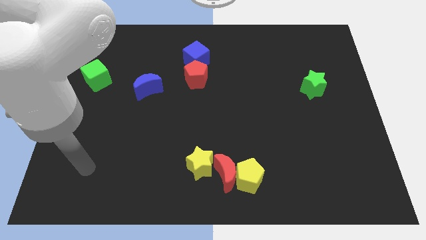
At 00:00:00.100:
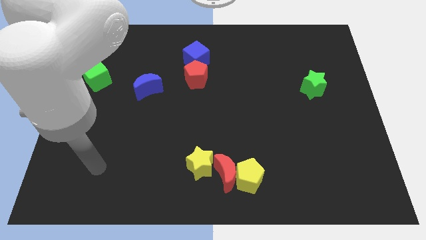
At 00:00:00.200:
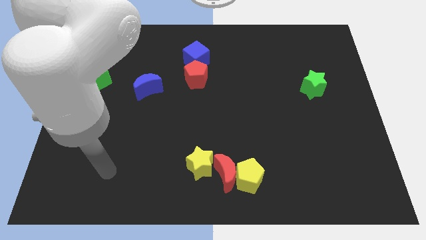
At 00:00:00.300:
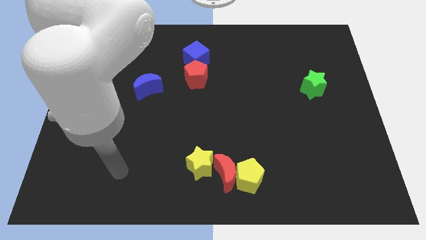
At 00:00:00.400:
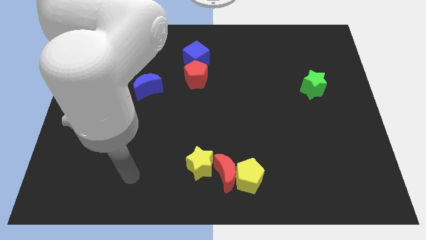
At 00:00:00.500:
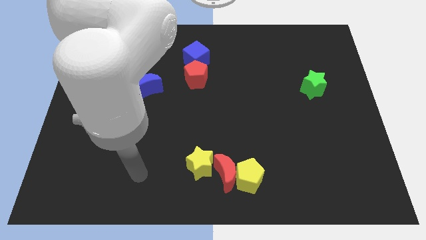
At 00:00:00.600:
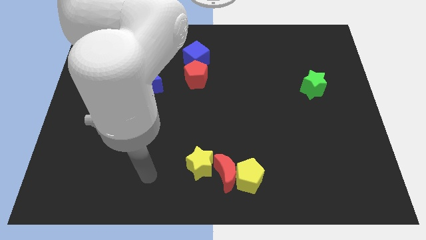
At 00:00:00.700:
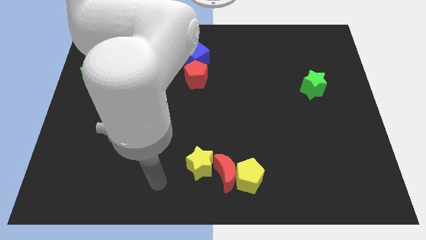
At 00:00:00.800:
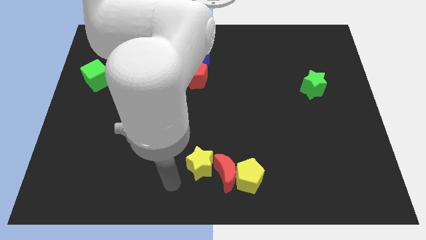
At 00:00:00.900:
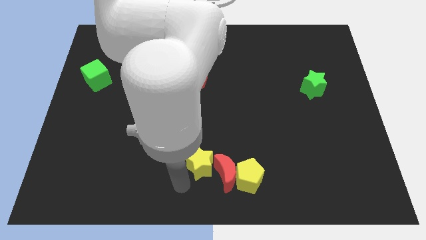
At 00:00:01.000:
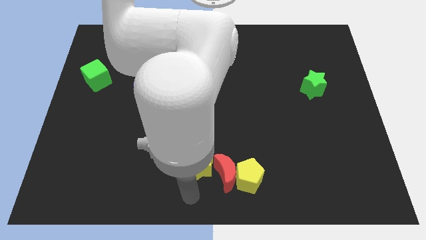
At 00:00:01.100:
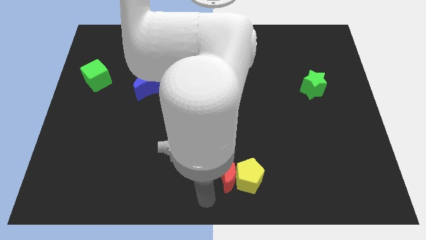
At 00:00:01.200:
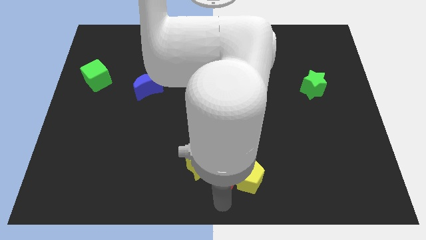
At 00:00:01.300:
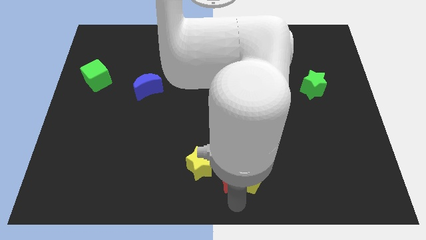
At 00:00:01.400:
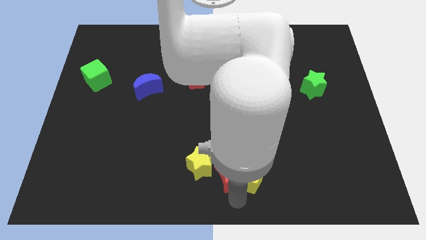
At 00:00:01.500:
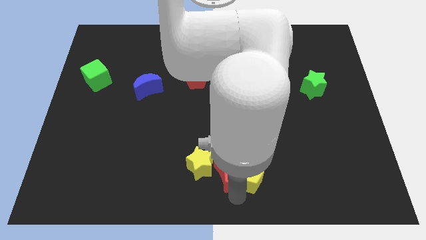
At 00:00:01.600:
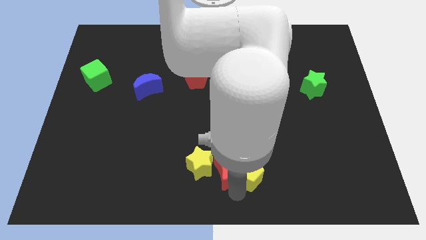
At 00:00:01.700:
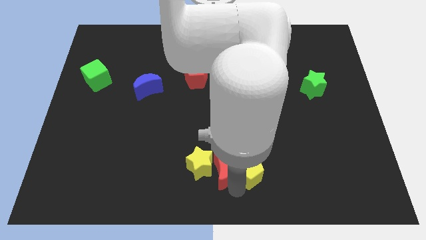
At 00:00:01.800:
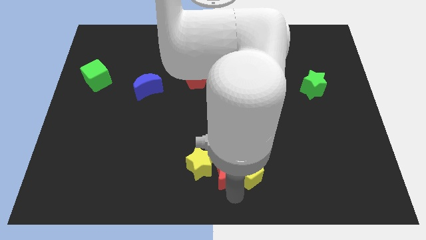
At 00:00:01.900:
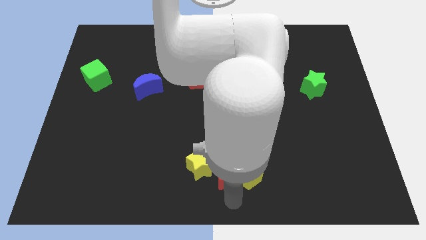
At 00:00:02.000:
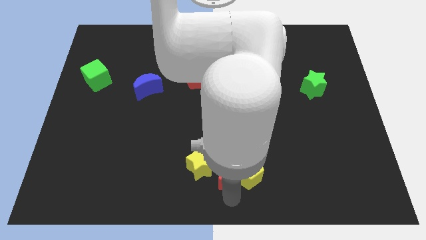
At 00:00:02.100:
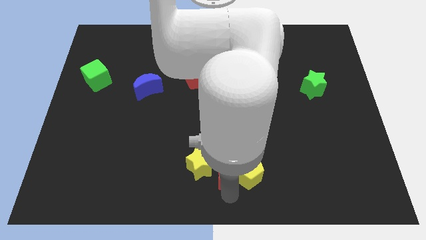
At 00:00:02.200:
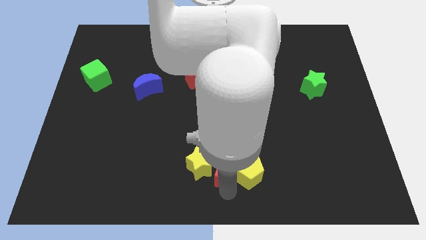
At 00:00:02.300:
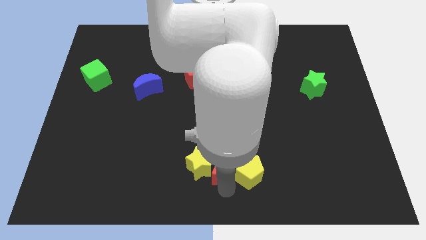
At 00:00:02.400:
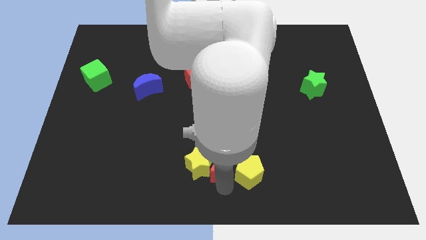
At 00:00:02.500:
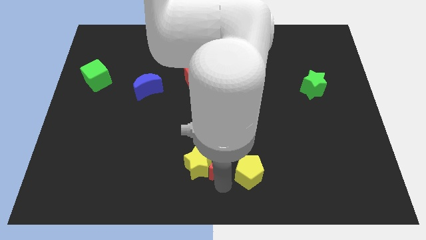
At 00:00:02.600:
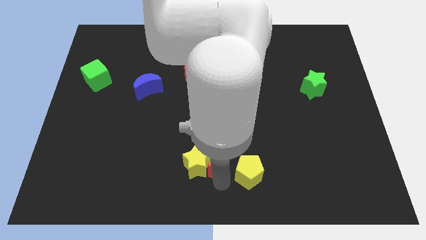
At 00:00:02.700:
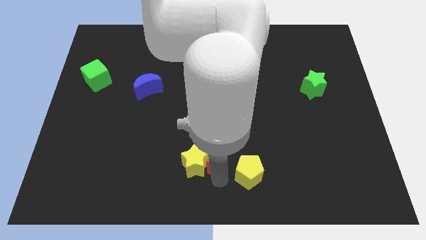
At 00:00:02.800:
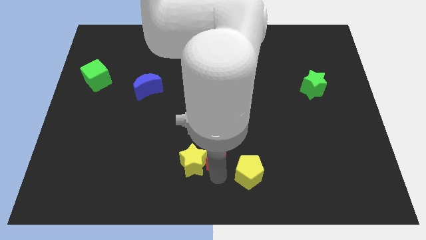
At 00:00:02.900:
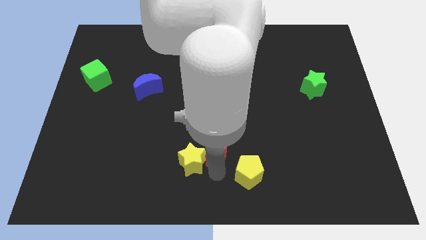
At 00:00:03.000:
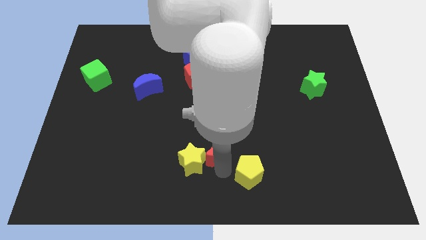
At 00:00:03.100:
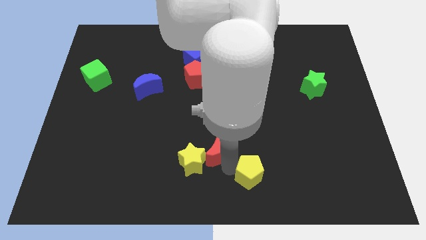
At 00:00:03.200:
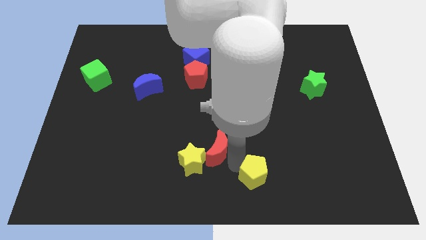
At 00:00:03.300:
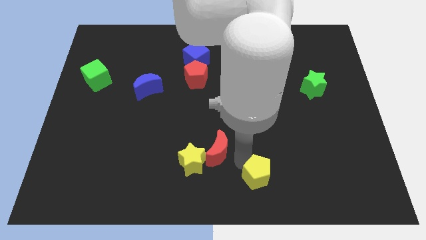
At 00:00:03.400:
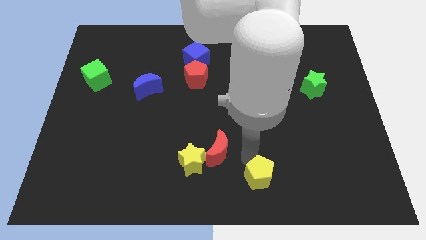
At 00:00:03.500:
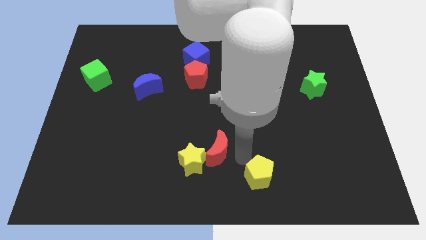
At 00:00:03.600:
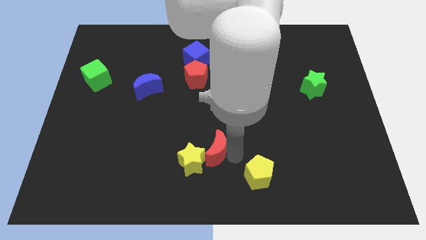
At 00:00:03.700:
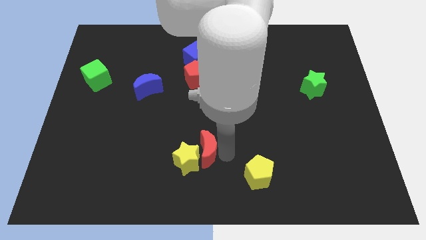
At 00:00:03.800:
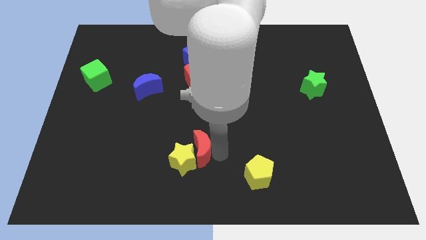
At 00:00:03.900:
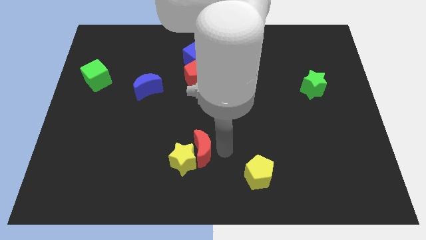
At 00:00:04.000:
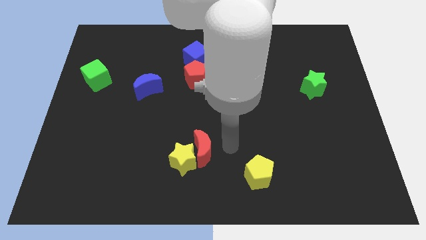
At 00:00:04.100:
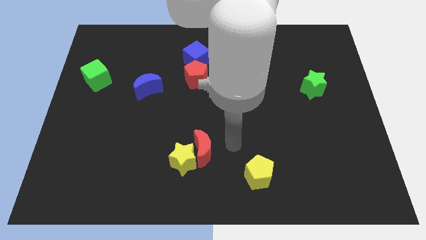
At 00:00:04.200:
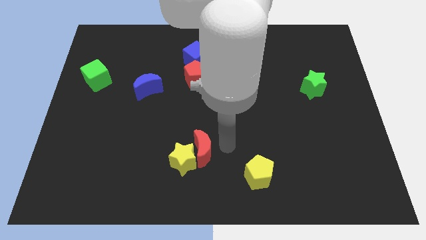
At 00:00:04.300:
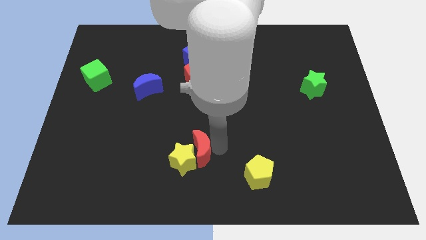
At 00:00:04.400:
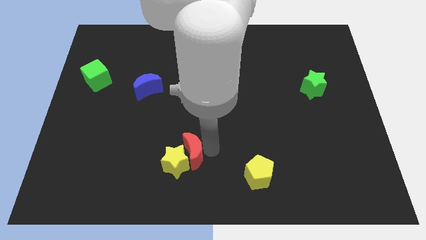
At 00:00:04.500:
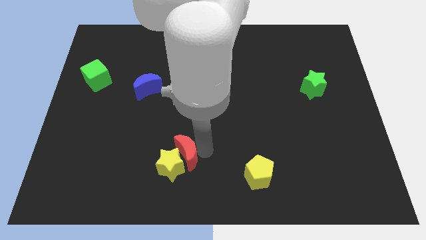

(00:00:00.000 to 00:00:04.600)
slide the red moon left a little bit

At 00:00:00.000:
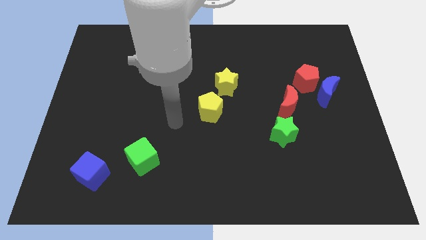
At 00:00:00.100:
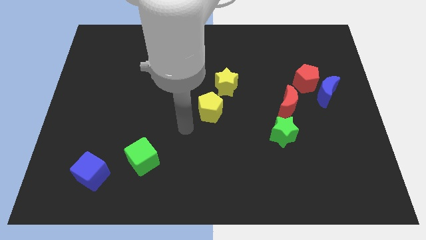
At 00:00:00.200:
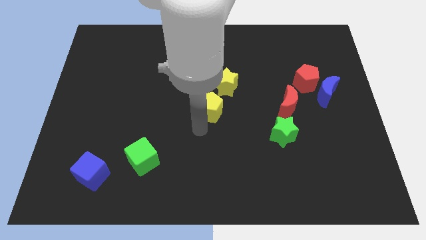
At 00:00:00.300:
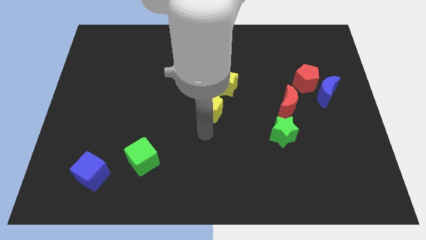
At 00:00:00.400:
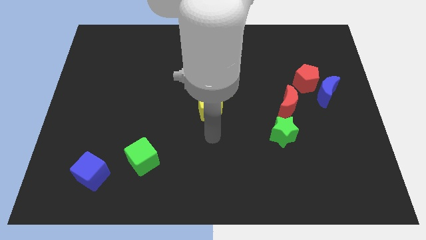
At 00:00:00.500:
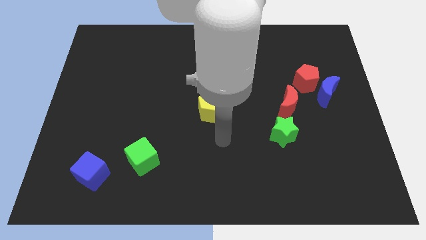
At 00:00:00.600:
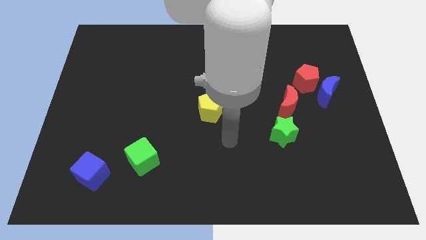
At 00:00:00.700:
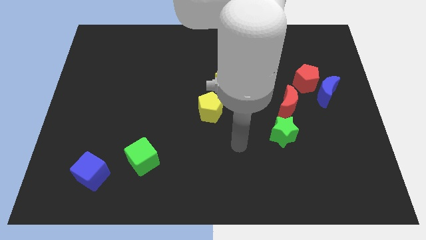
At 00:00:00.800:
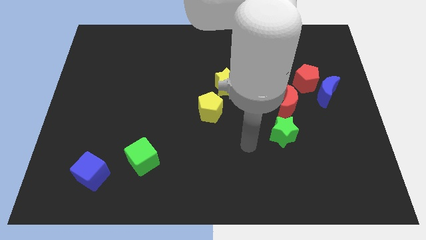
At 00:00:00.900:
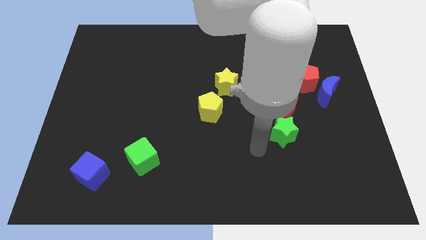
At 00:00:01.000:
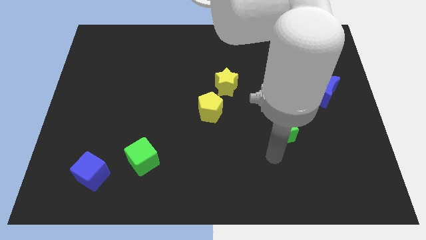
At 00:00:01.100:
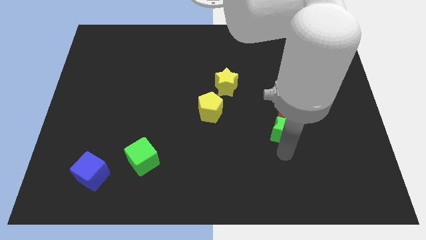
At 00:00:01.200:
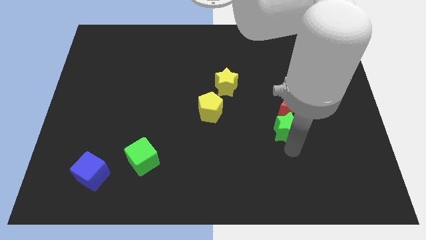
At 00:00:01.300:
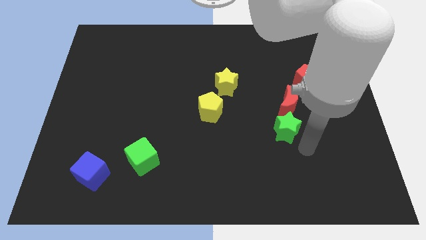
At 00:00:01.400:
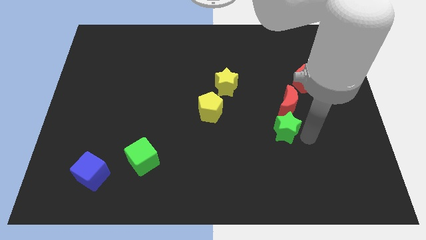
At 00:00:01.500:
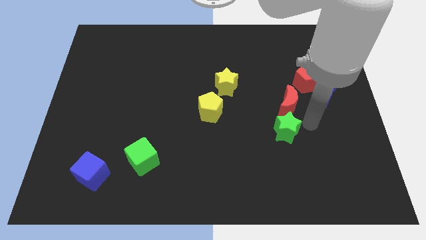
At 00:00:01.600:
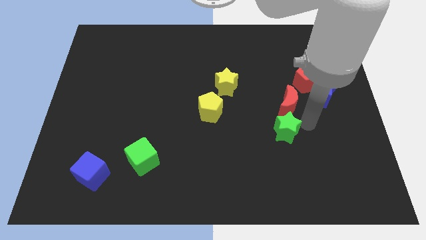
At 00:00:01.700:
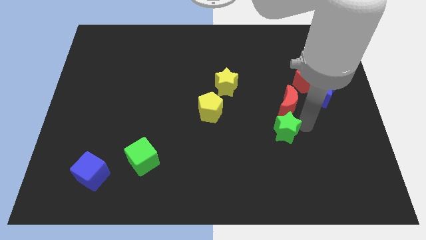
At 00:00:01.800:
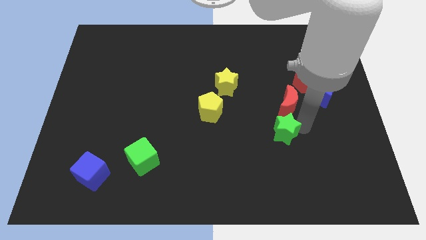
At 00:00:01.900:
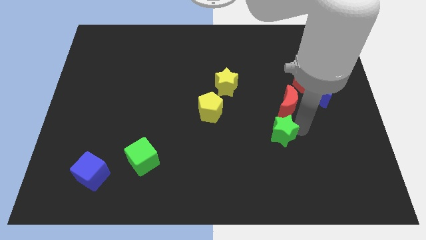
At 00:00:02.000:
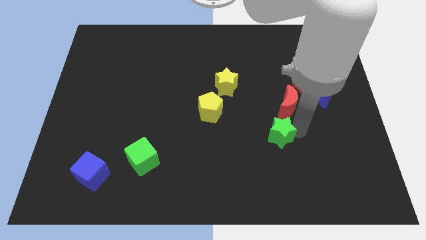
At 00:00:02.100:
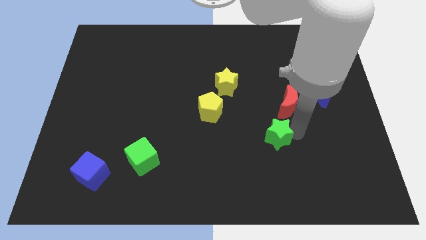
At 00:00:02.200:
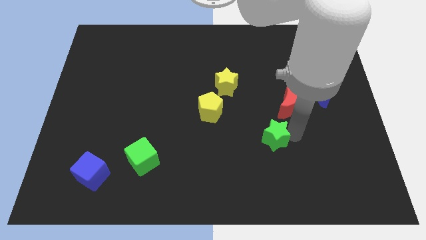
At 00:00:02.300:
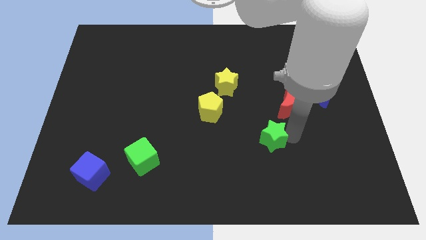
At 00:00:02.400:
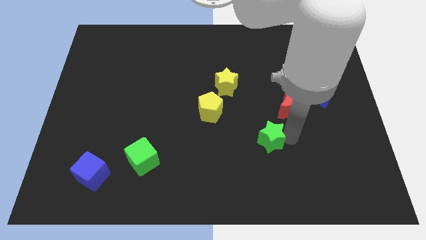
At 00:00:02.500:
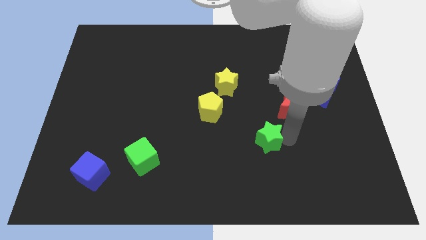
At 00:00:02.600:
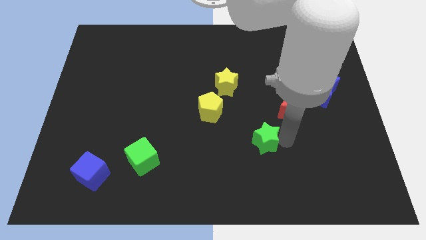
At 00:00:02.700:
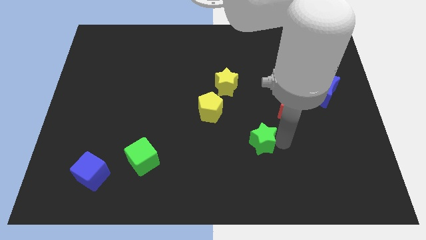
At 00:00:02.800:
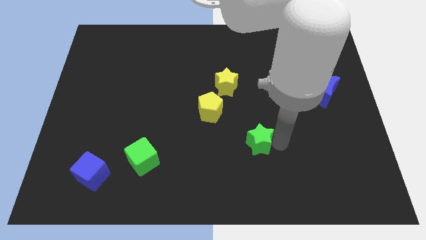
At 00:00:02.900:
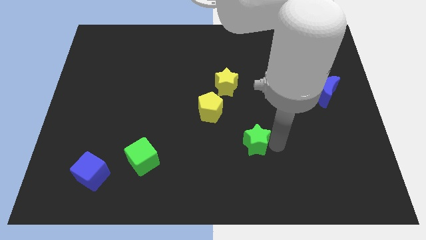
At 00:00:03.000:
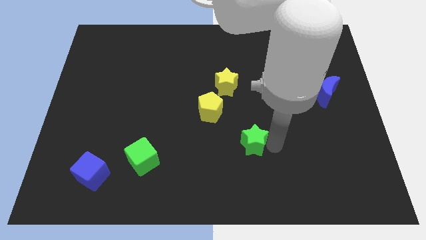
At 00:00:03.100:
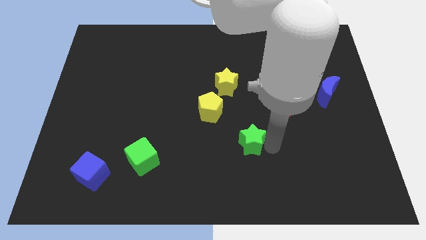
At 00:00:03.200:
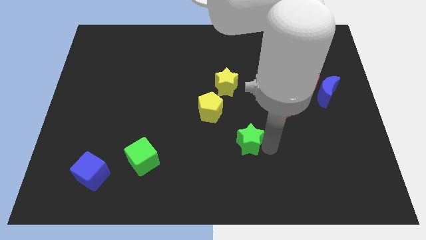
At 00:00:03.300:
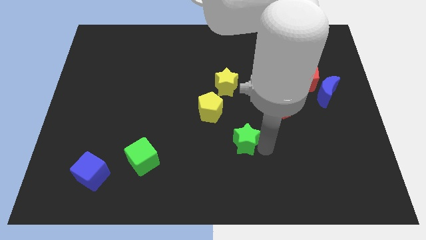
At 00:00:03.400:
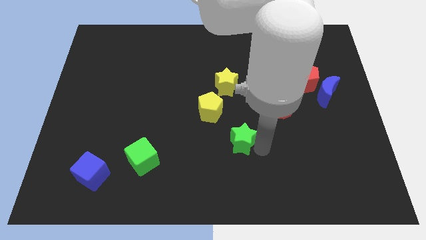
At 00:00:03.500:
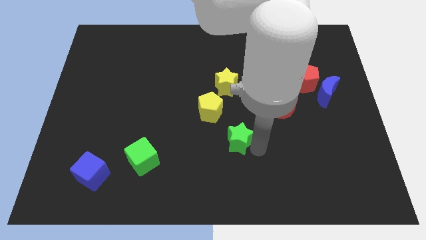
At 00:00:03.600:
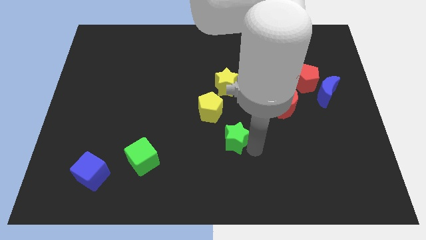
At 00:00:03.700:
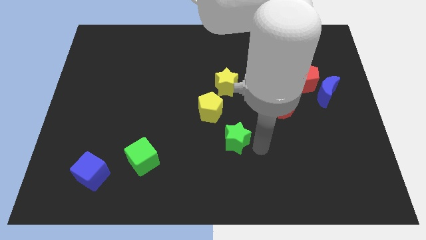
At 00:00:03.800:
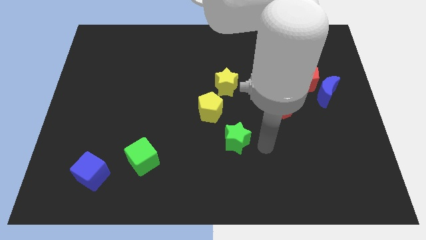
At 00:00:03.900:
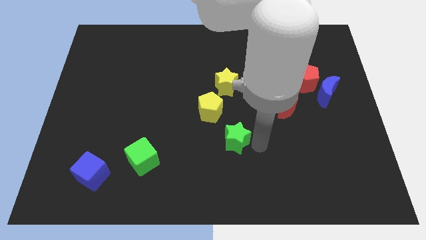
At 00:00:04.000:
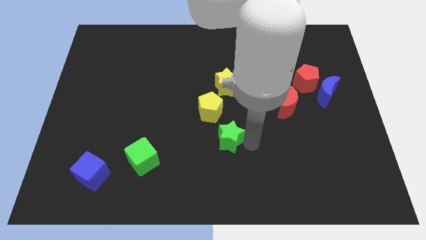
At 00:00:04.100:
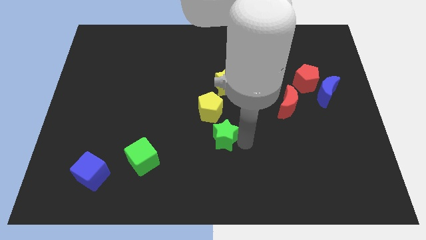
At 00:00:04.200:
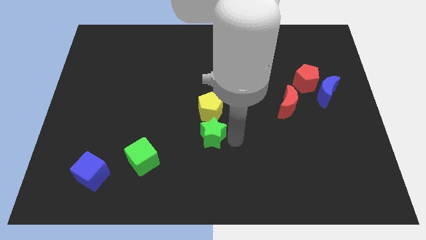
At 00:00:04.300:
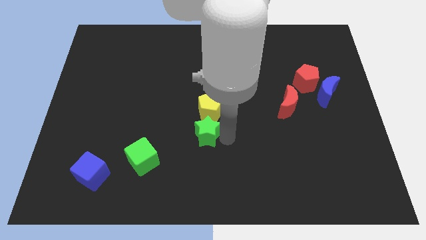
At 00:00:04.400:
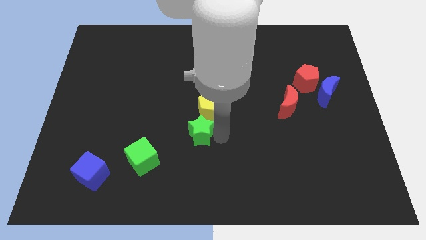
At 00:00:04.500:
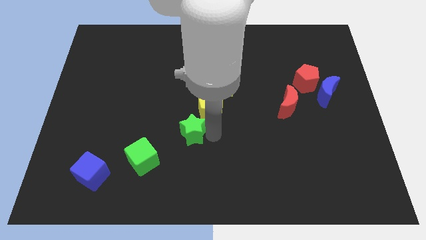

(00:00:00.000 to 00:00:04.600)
push the green star to the left
